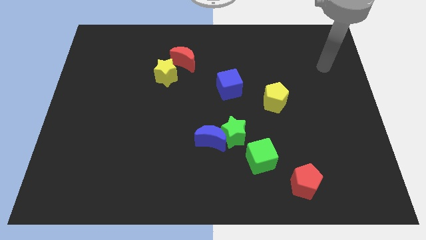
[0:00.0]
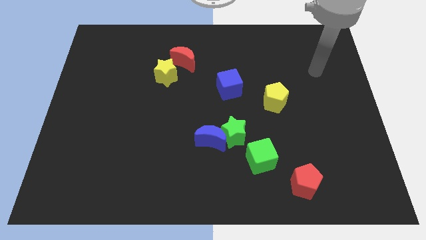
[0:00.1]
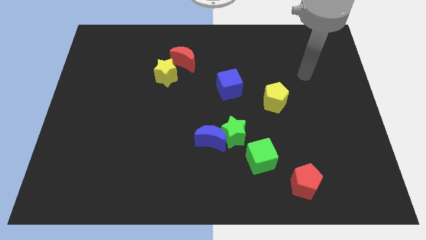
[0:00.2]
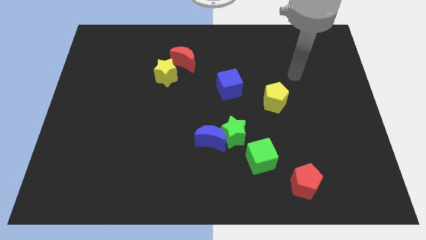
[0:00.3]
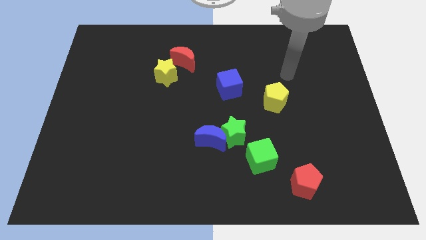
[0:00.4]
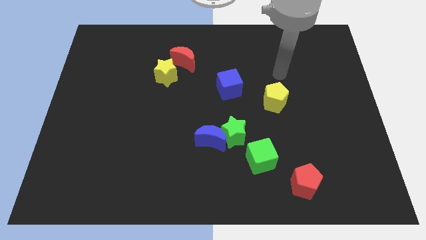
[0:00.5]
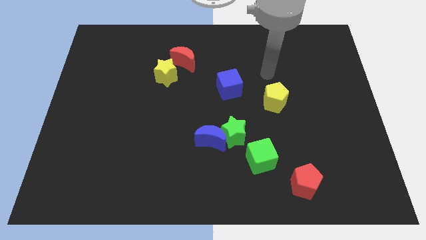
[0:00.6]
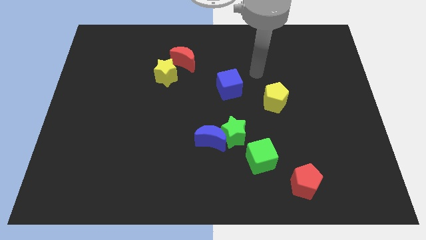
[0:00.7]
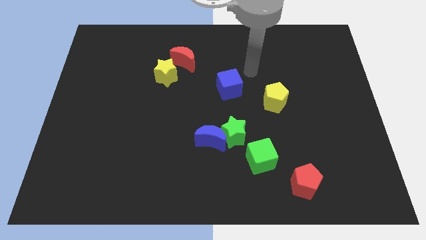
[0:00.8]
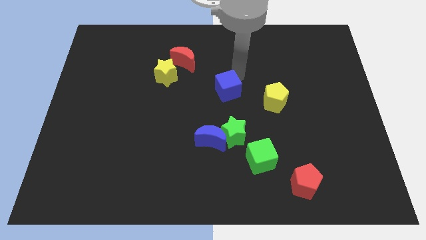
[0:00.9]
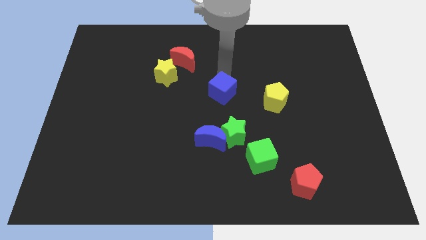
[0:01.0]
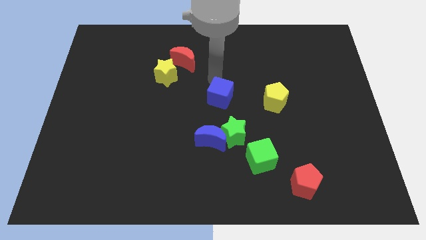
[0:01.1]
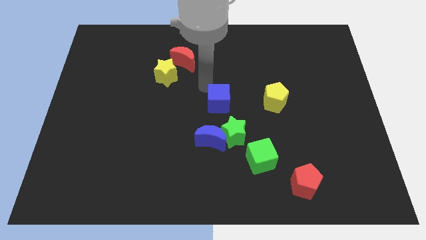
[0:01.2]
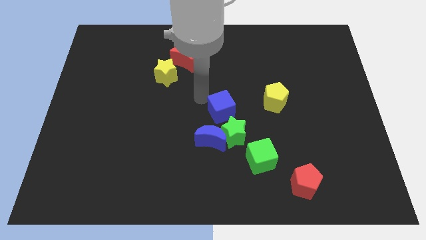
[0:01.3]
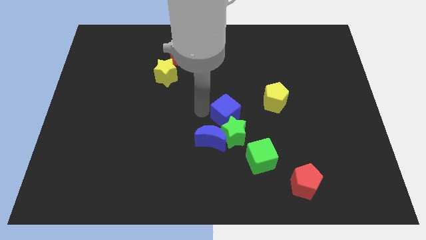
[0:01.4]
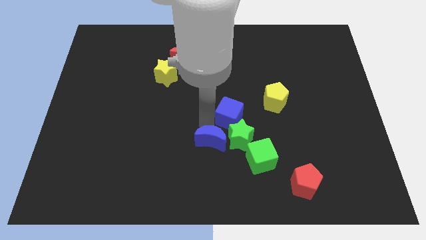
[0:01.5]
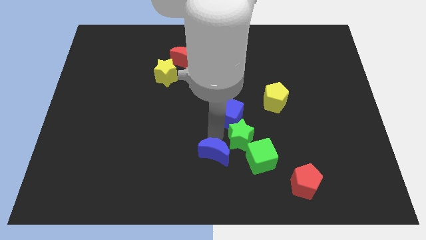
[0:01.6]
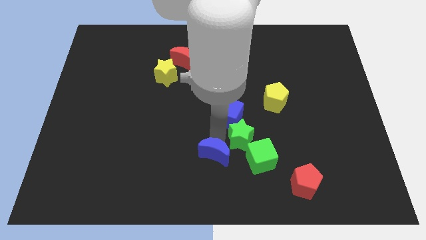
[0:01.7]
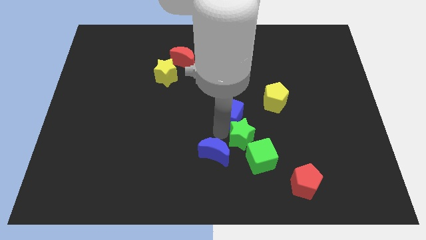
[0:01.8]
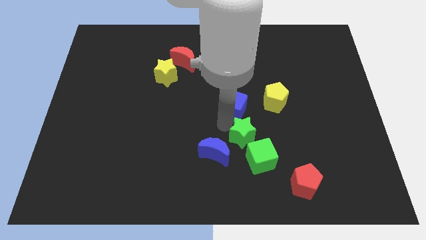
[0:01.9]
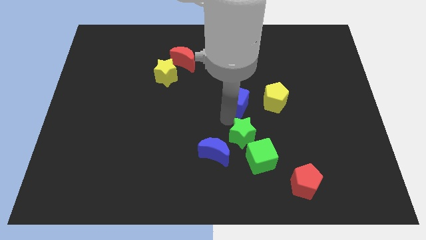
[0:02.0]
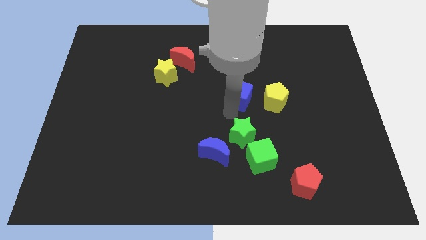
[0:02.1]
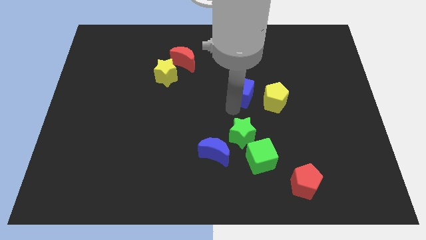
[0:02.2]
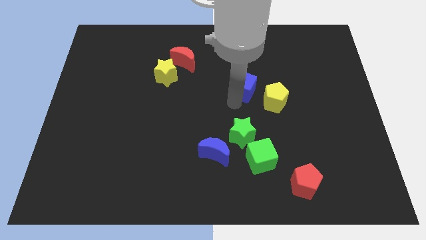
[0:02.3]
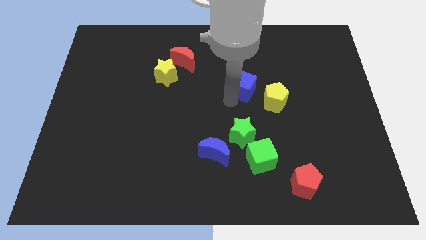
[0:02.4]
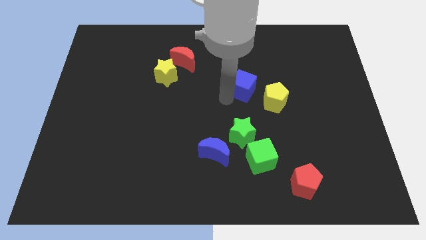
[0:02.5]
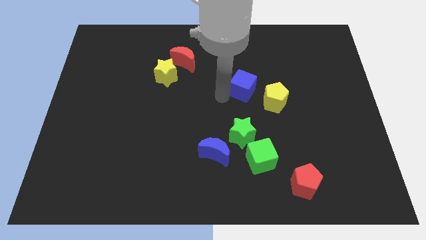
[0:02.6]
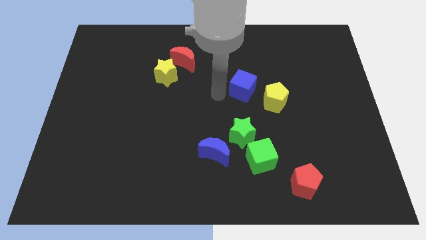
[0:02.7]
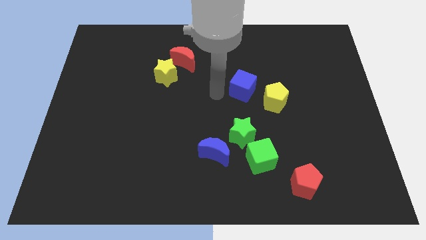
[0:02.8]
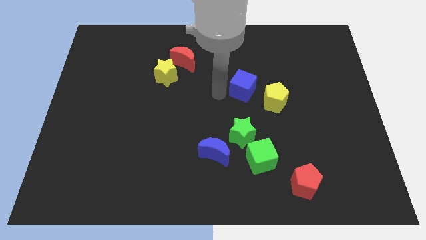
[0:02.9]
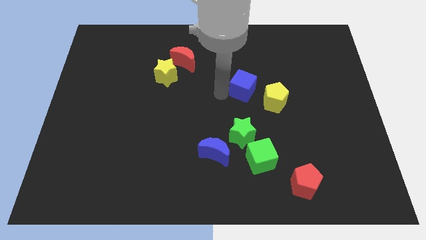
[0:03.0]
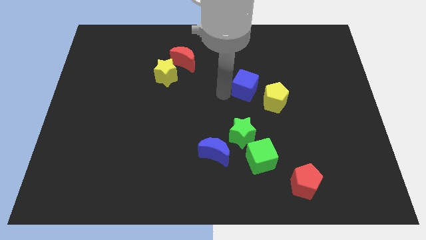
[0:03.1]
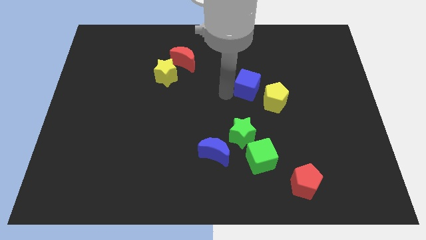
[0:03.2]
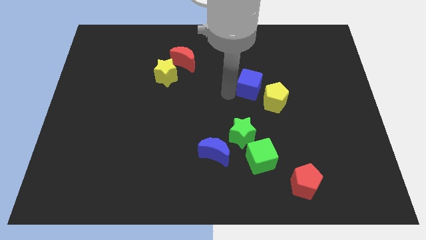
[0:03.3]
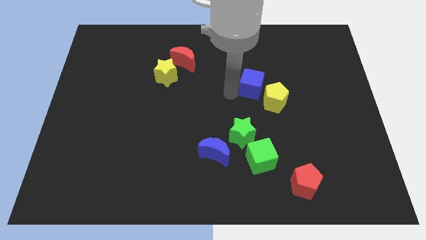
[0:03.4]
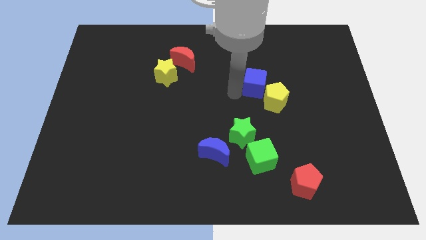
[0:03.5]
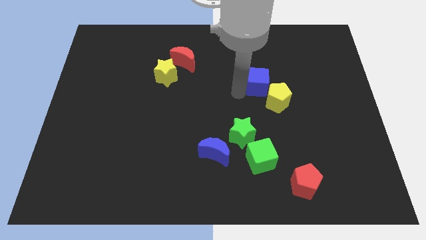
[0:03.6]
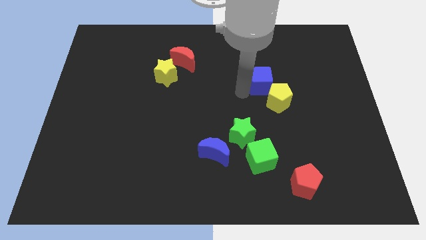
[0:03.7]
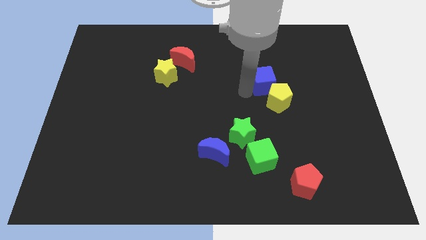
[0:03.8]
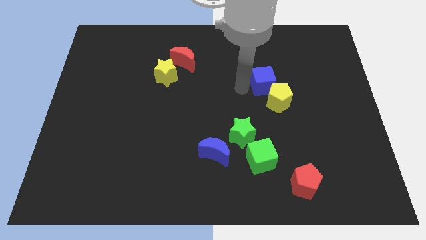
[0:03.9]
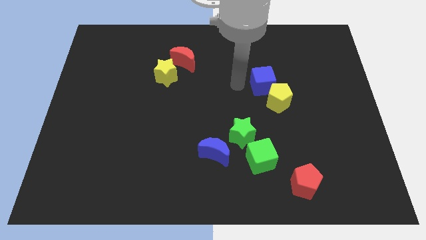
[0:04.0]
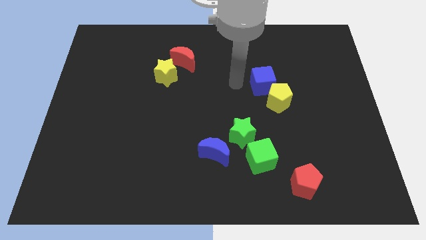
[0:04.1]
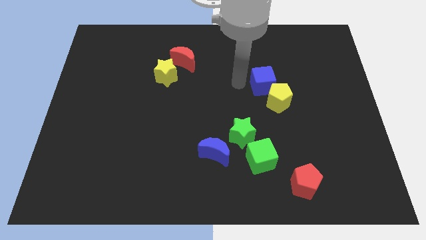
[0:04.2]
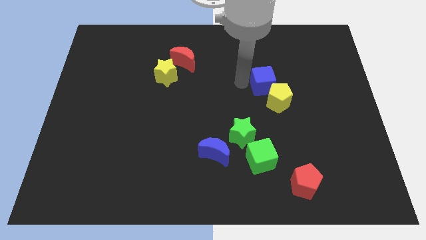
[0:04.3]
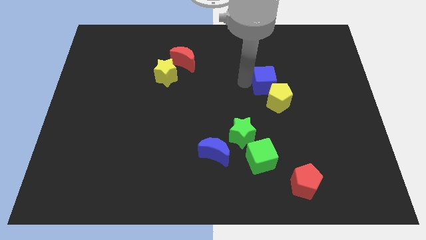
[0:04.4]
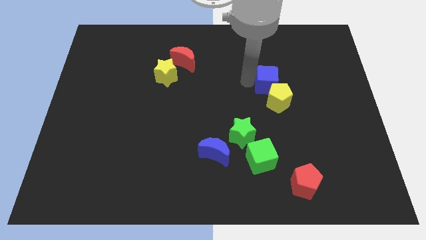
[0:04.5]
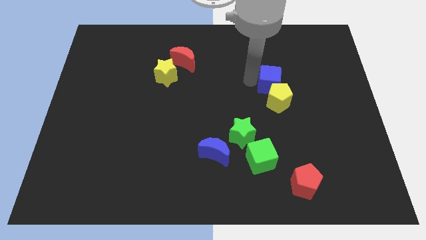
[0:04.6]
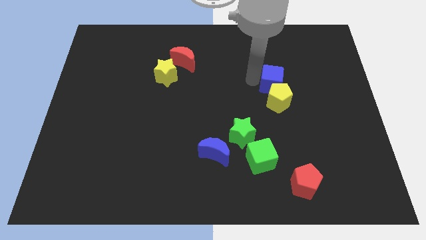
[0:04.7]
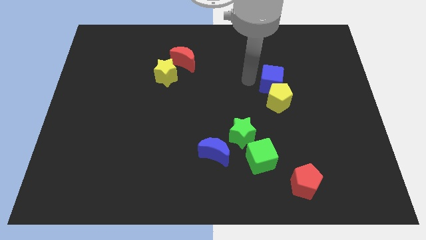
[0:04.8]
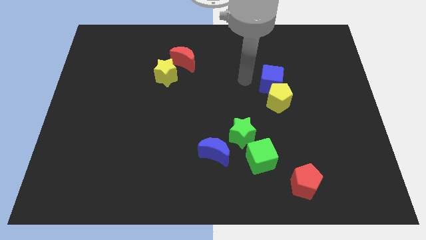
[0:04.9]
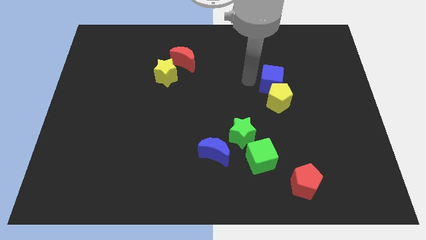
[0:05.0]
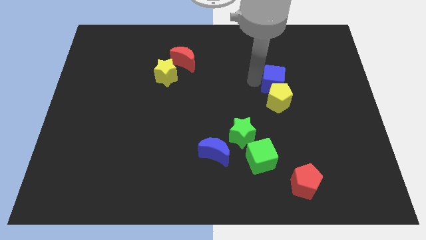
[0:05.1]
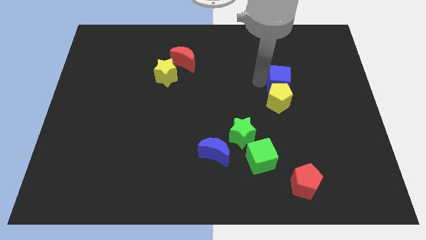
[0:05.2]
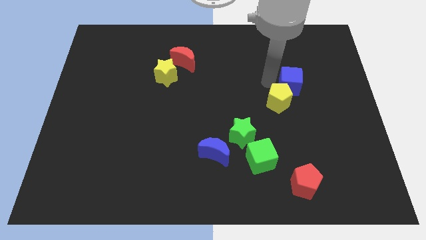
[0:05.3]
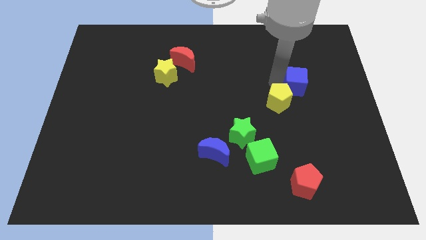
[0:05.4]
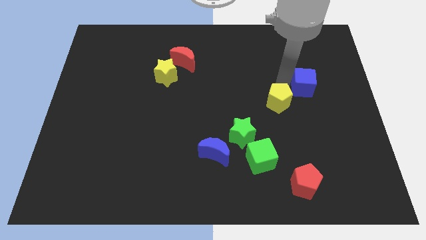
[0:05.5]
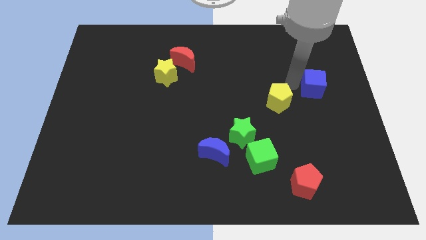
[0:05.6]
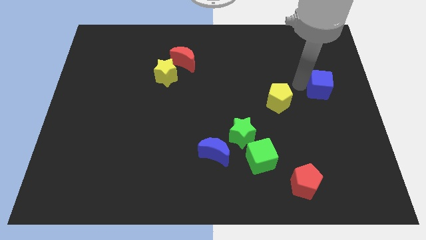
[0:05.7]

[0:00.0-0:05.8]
put the blue cube to the right side of the board

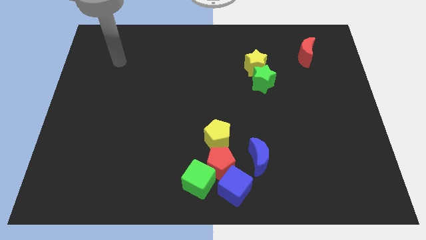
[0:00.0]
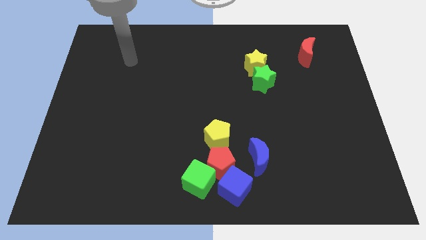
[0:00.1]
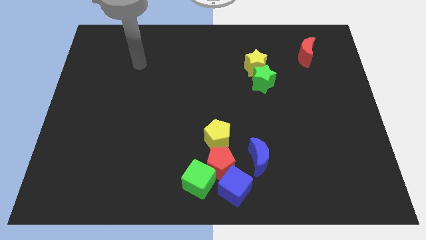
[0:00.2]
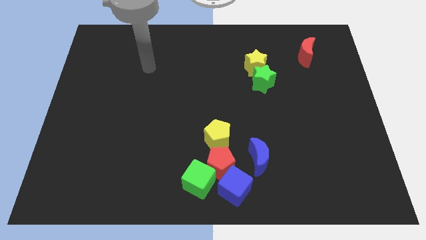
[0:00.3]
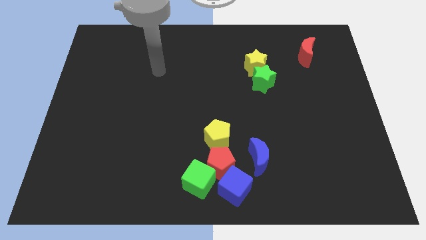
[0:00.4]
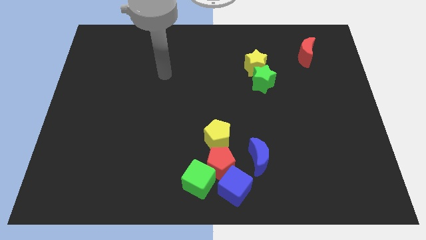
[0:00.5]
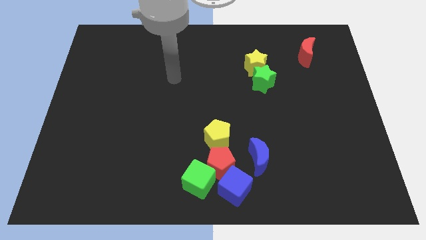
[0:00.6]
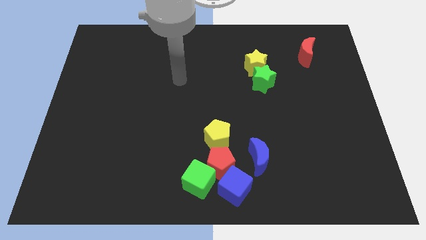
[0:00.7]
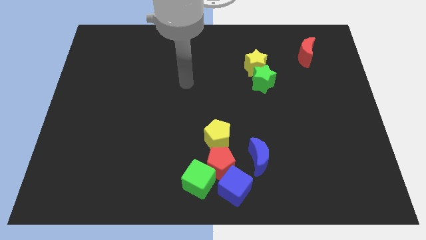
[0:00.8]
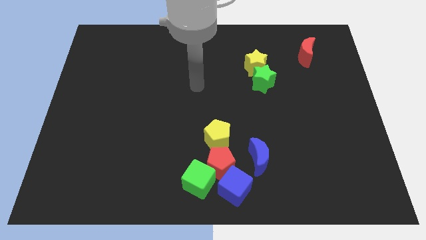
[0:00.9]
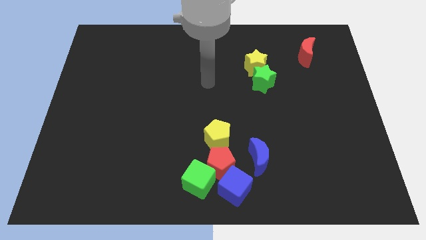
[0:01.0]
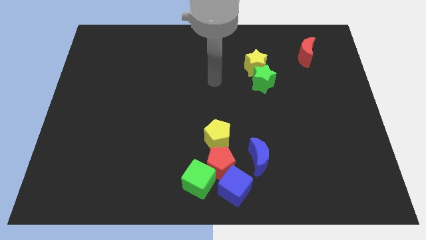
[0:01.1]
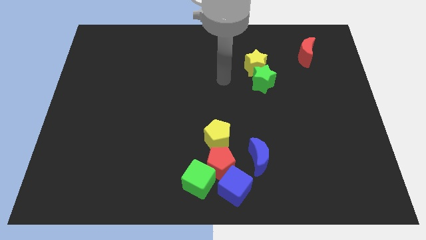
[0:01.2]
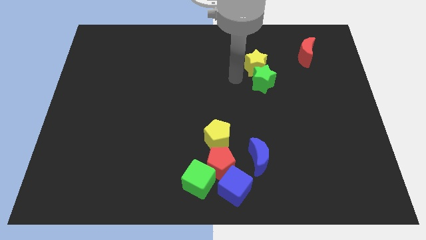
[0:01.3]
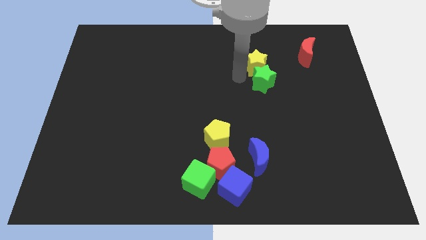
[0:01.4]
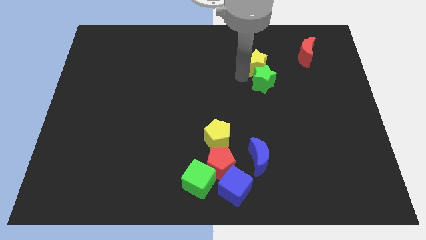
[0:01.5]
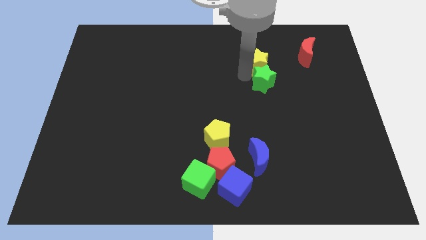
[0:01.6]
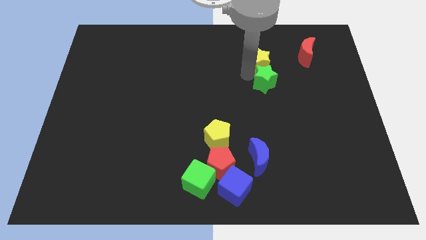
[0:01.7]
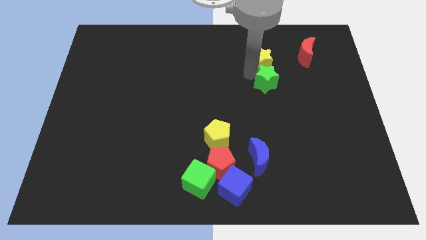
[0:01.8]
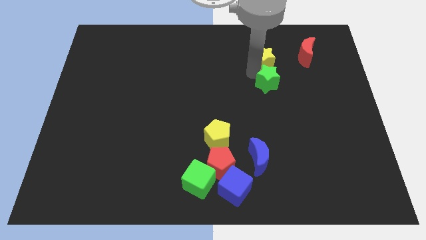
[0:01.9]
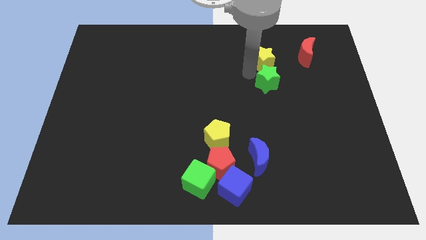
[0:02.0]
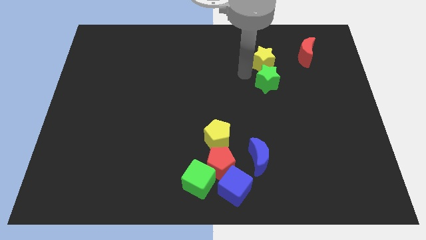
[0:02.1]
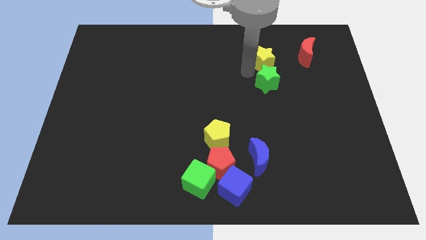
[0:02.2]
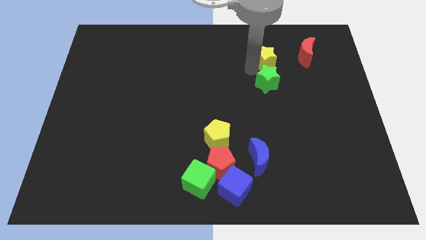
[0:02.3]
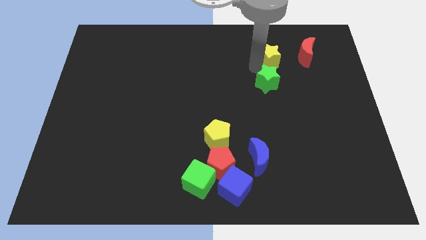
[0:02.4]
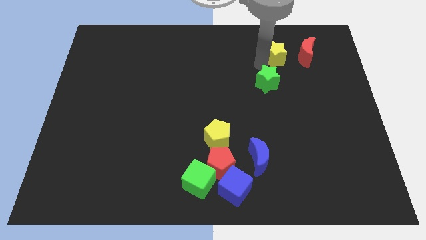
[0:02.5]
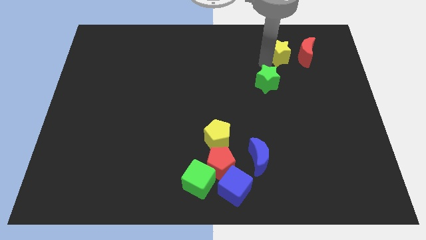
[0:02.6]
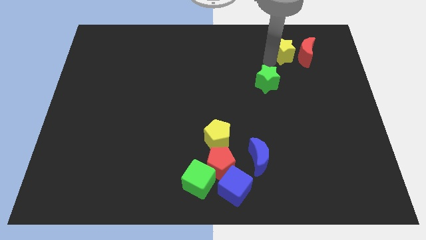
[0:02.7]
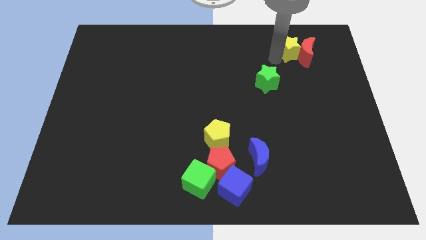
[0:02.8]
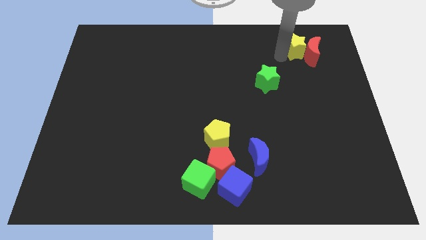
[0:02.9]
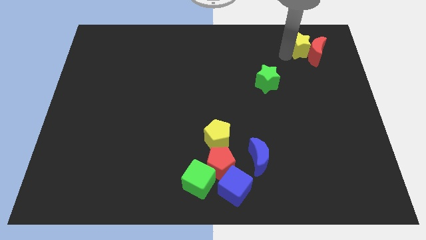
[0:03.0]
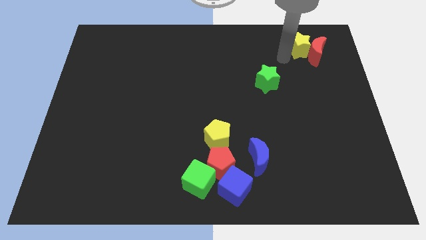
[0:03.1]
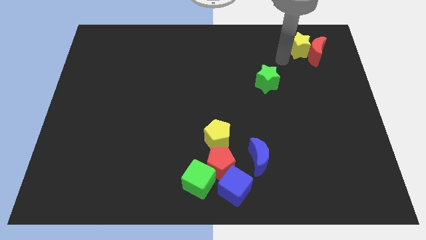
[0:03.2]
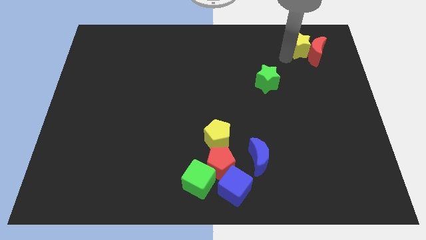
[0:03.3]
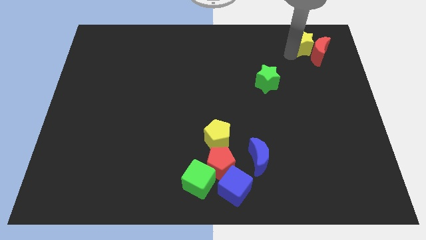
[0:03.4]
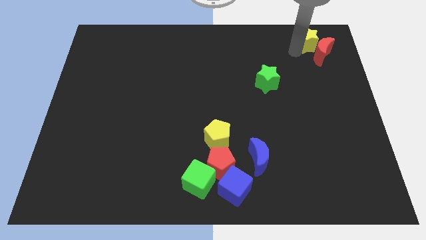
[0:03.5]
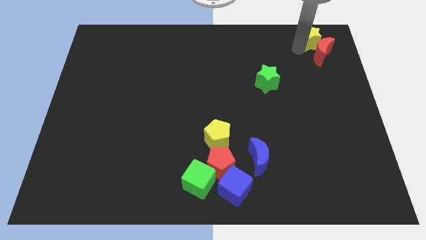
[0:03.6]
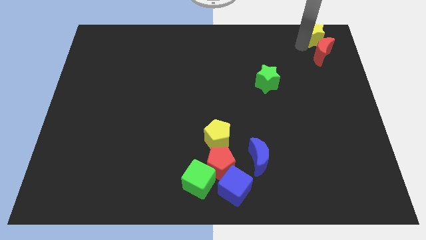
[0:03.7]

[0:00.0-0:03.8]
move the yellow star to the top right of the board
